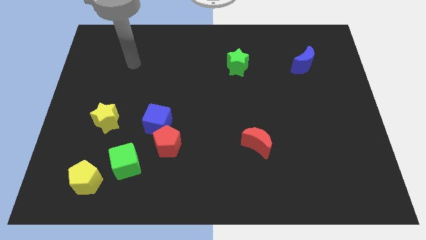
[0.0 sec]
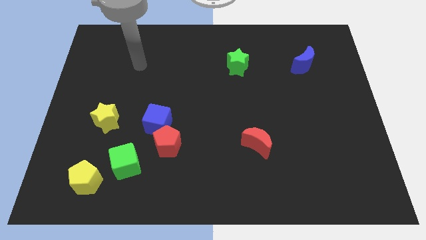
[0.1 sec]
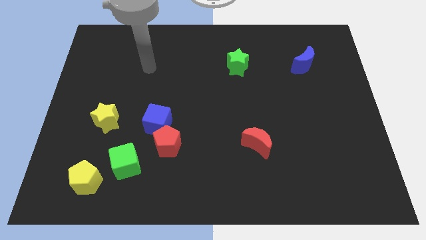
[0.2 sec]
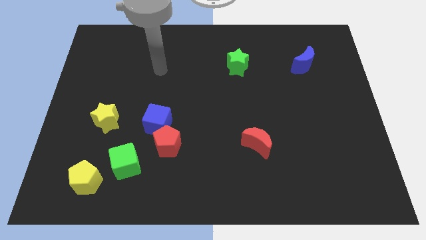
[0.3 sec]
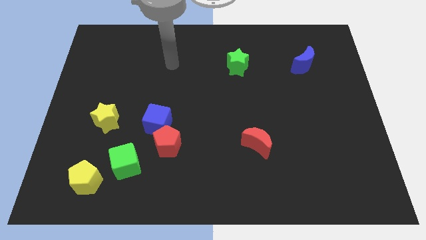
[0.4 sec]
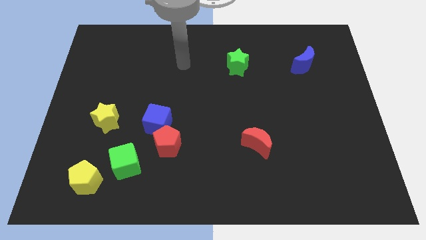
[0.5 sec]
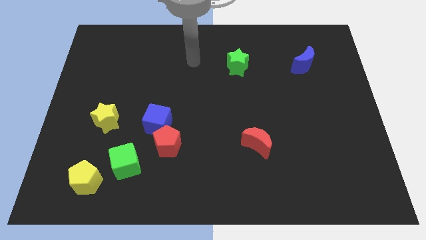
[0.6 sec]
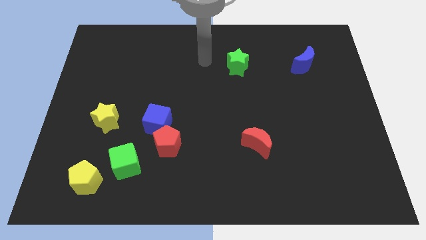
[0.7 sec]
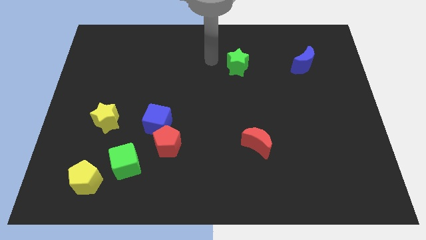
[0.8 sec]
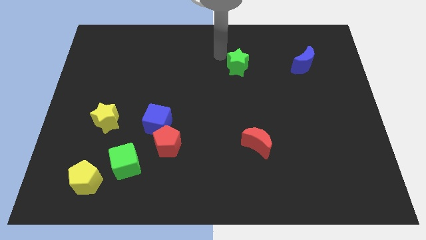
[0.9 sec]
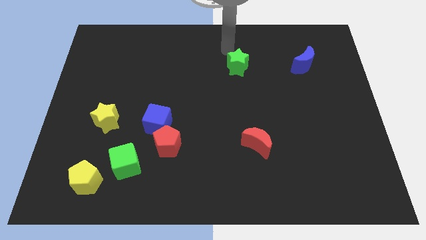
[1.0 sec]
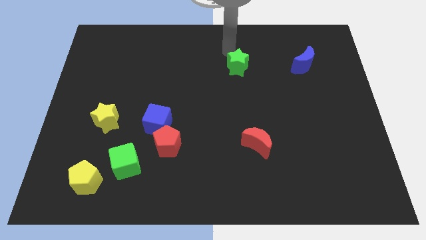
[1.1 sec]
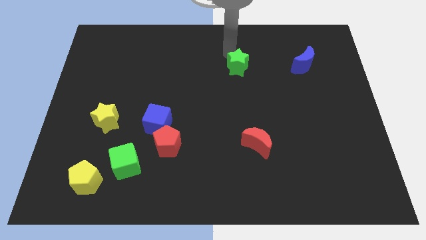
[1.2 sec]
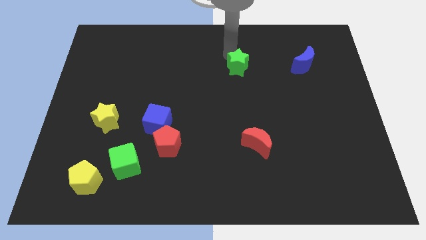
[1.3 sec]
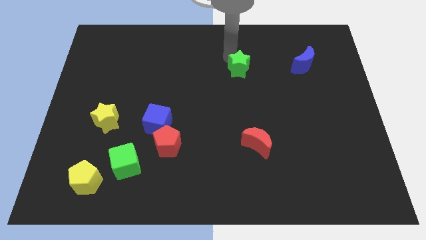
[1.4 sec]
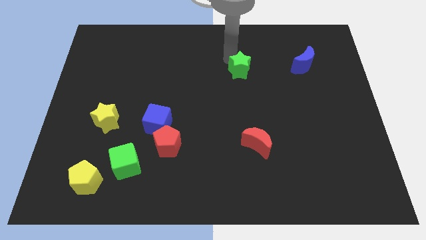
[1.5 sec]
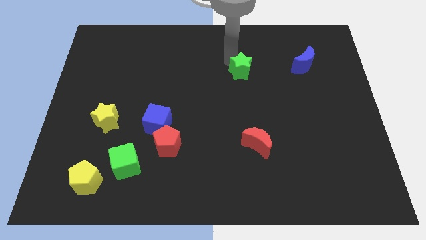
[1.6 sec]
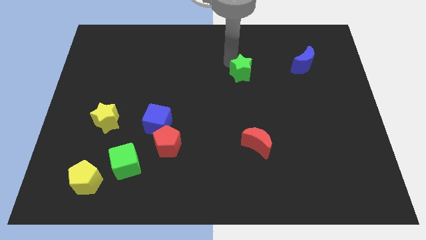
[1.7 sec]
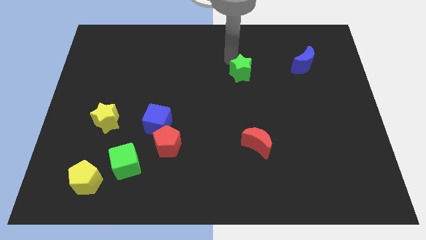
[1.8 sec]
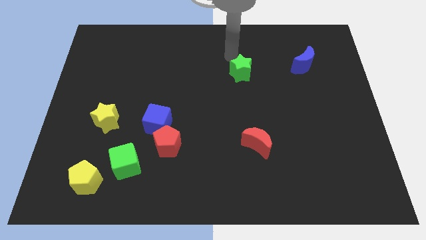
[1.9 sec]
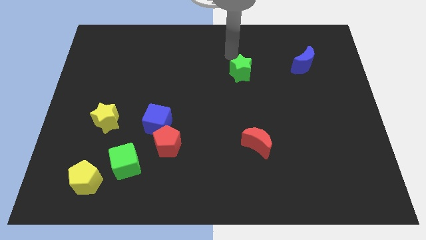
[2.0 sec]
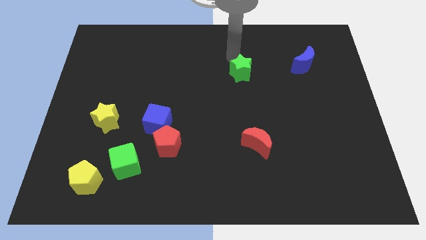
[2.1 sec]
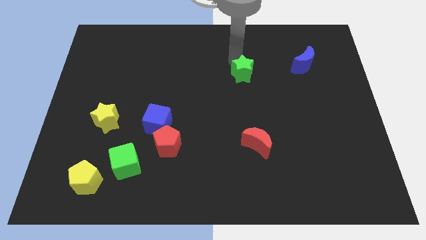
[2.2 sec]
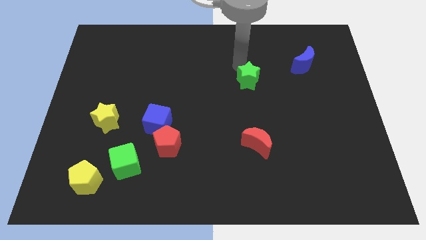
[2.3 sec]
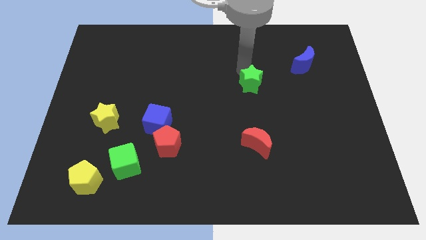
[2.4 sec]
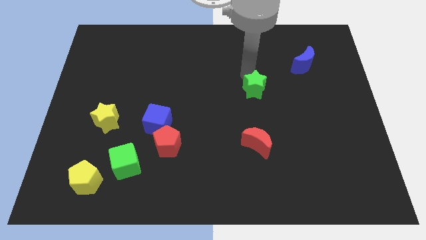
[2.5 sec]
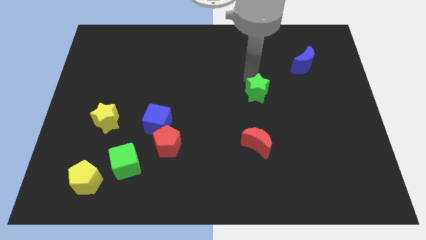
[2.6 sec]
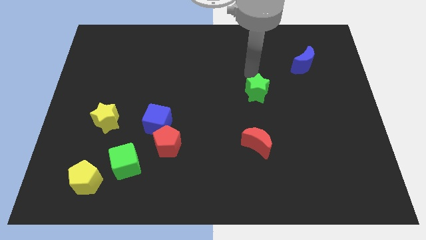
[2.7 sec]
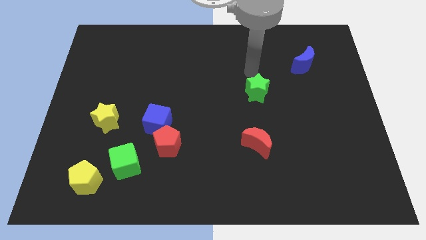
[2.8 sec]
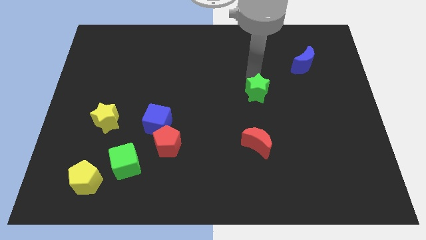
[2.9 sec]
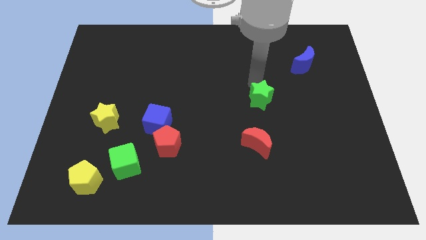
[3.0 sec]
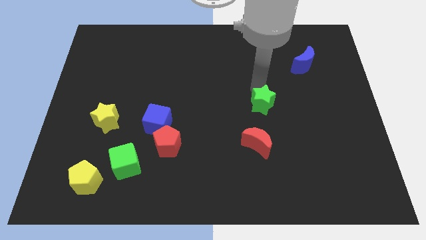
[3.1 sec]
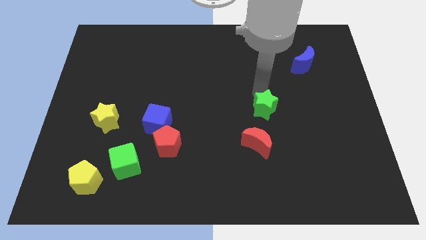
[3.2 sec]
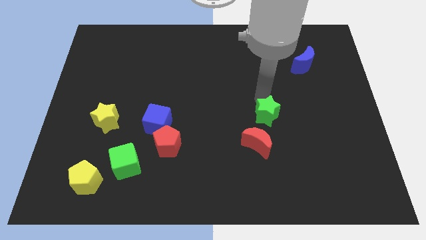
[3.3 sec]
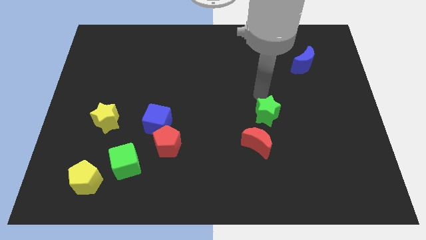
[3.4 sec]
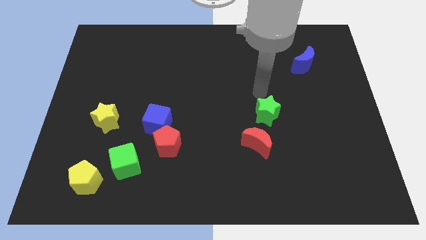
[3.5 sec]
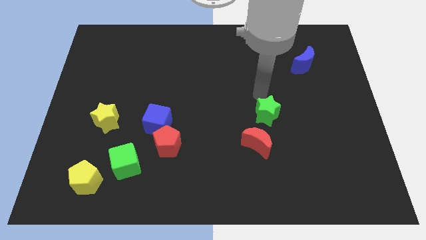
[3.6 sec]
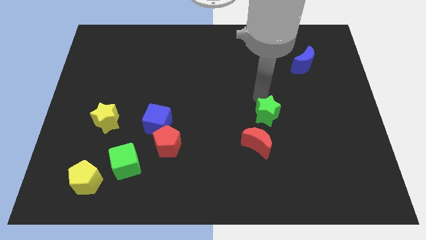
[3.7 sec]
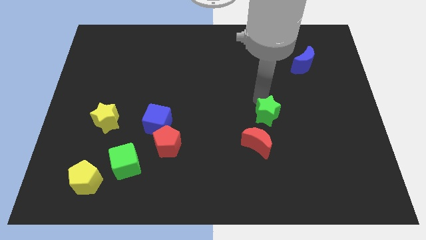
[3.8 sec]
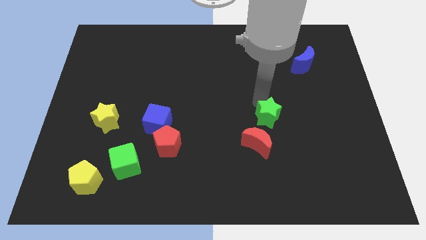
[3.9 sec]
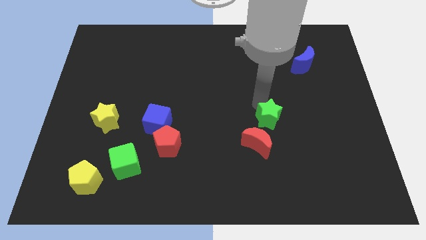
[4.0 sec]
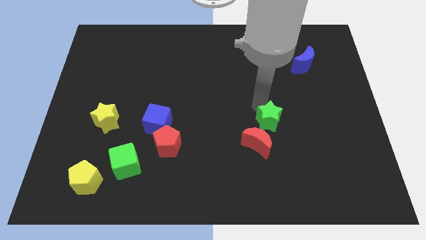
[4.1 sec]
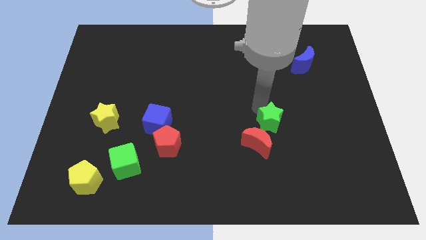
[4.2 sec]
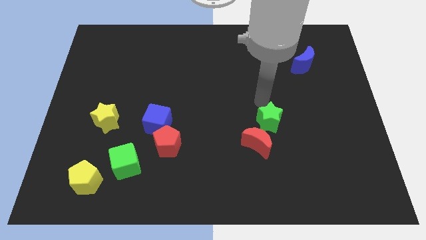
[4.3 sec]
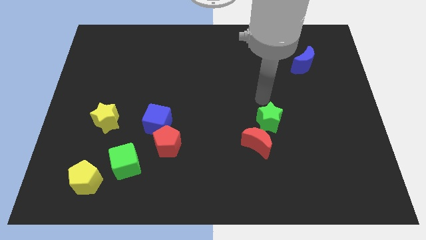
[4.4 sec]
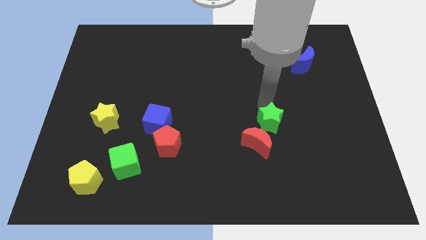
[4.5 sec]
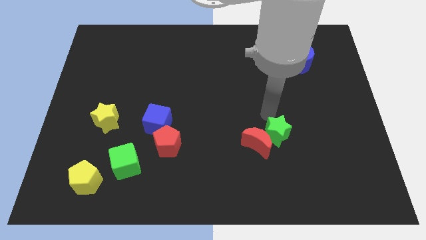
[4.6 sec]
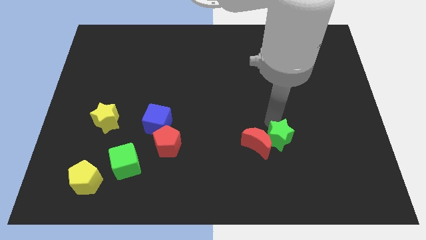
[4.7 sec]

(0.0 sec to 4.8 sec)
slide the green star to the bottom right of the red moon

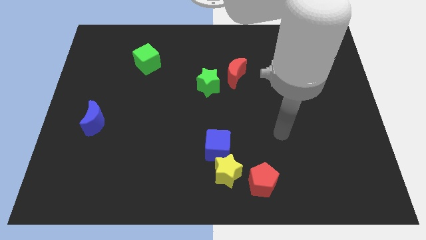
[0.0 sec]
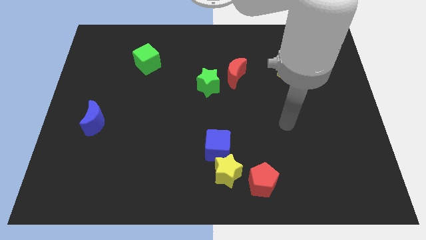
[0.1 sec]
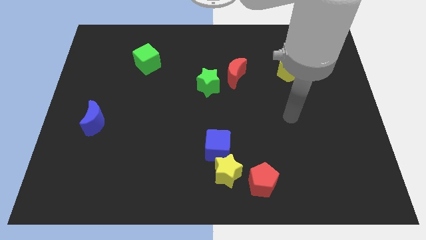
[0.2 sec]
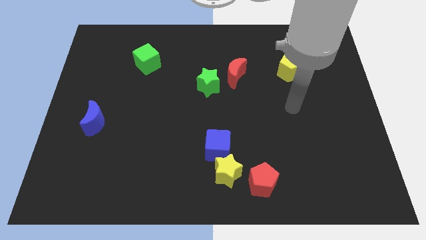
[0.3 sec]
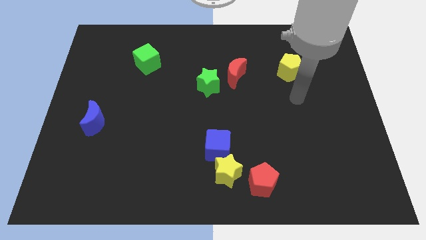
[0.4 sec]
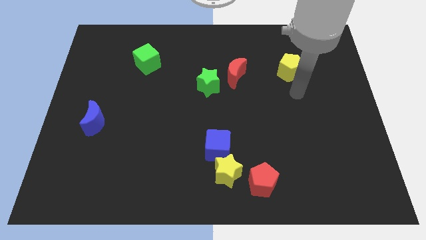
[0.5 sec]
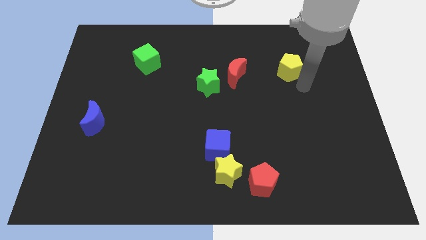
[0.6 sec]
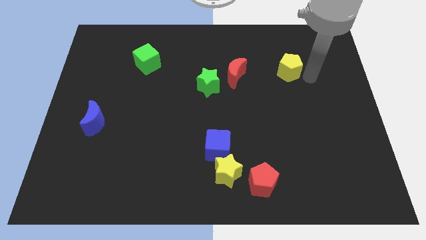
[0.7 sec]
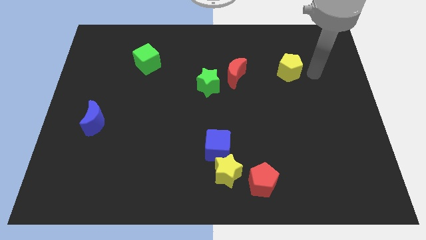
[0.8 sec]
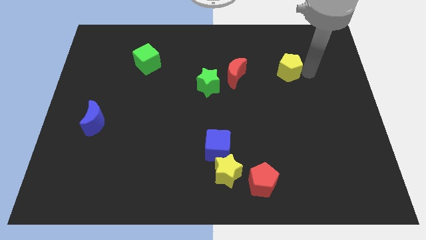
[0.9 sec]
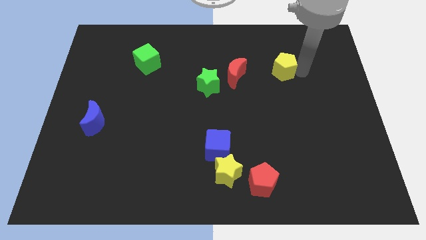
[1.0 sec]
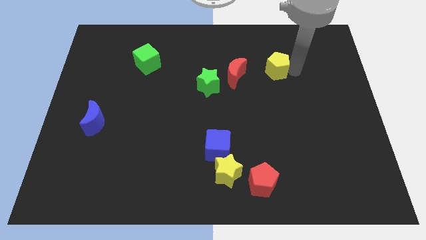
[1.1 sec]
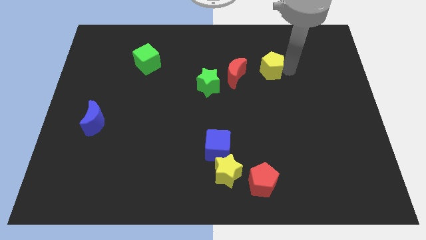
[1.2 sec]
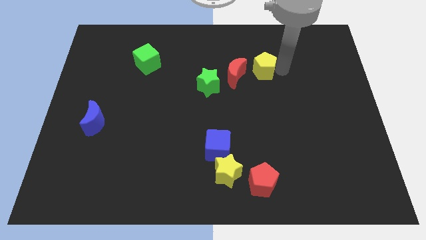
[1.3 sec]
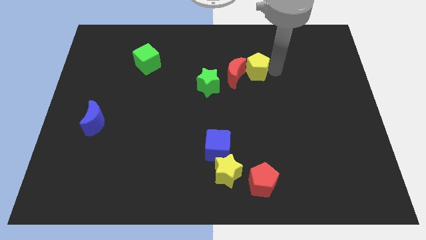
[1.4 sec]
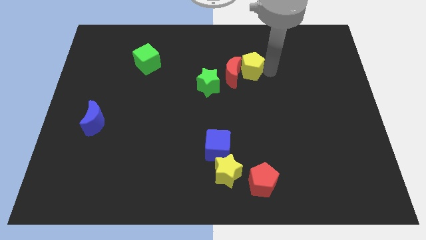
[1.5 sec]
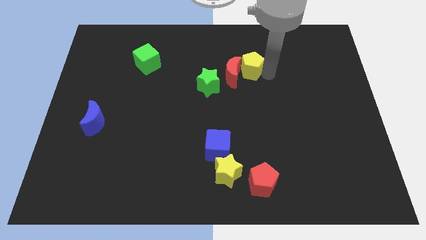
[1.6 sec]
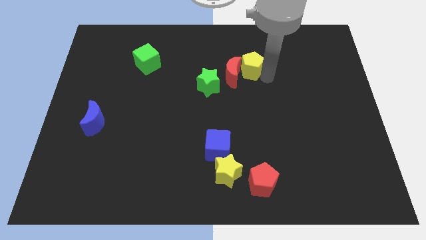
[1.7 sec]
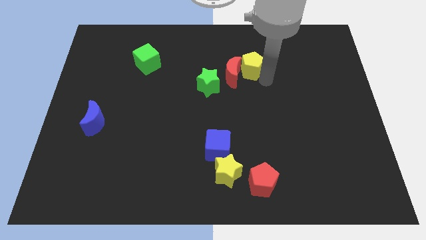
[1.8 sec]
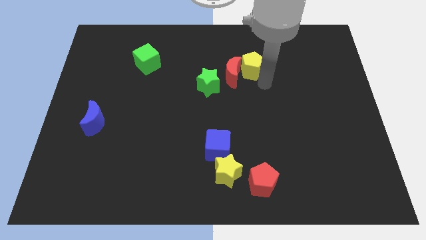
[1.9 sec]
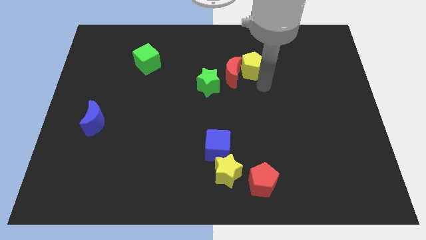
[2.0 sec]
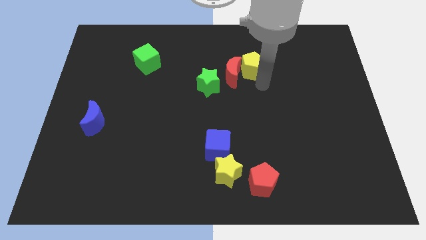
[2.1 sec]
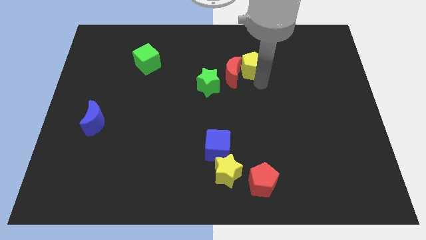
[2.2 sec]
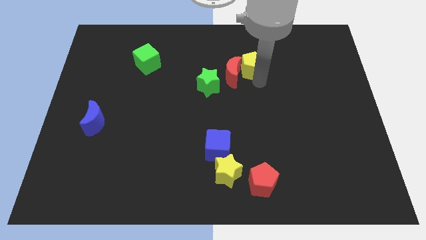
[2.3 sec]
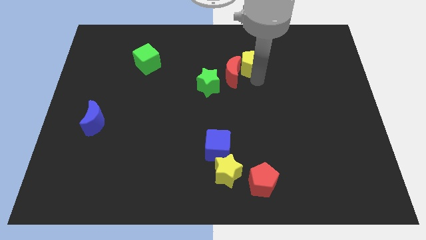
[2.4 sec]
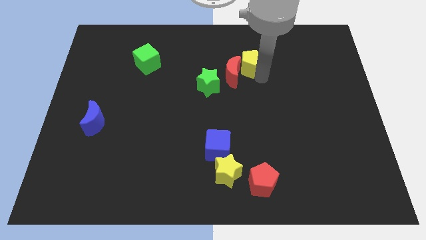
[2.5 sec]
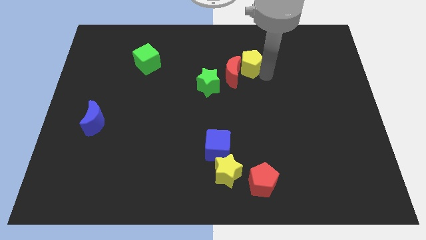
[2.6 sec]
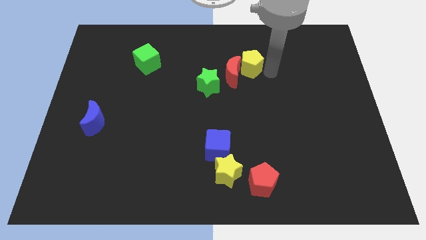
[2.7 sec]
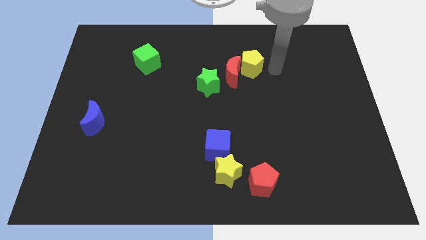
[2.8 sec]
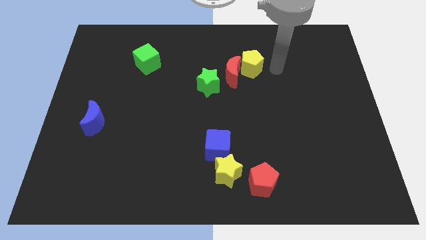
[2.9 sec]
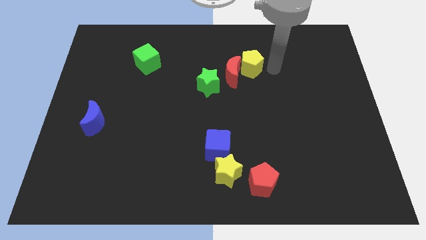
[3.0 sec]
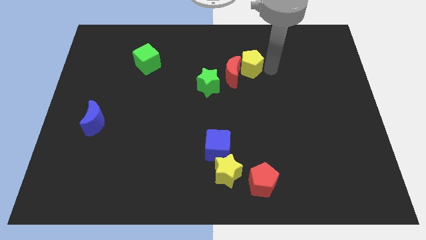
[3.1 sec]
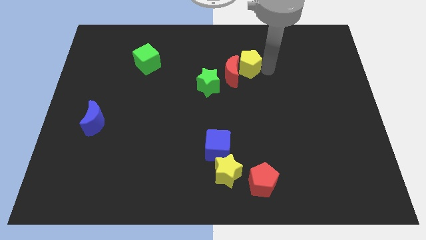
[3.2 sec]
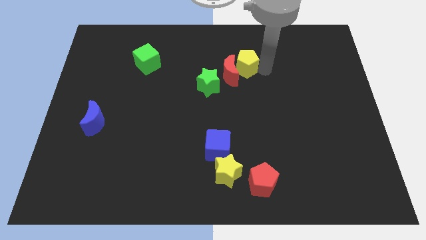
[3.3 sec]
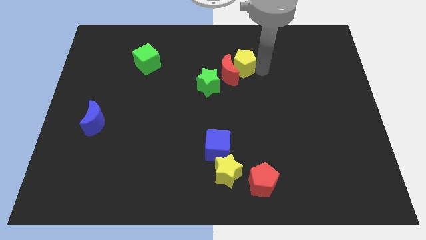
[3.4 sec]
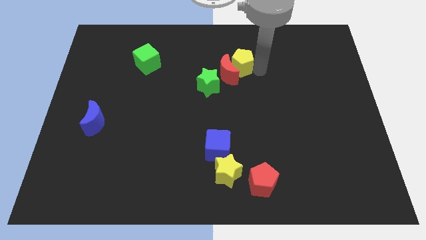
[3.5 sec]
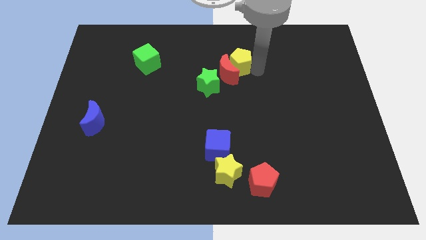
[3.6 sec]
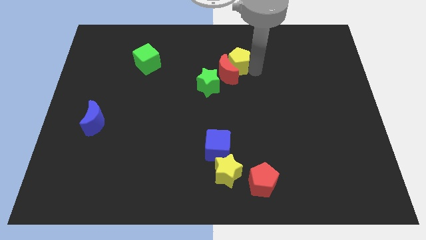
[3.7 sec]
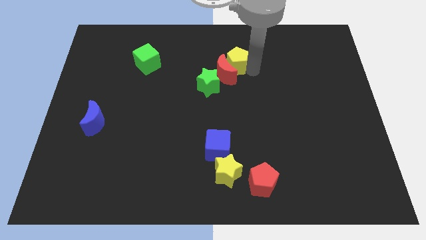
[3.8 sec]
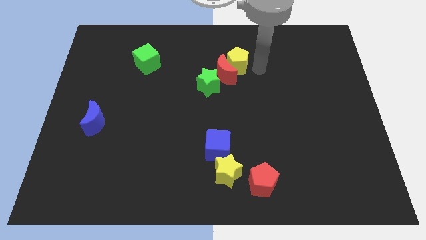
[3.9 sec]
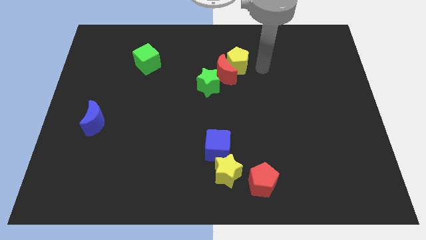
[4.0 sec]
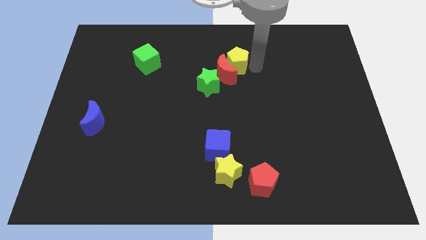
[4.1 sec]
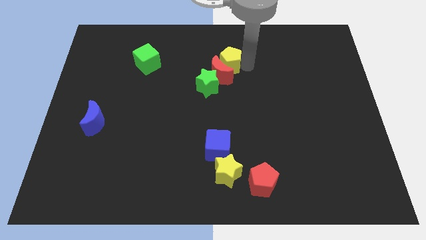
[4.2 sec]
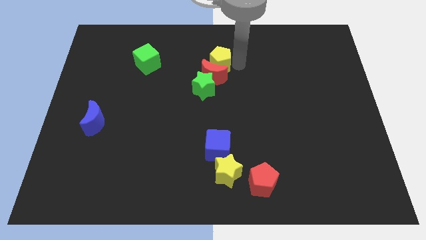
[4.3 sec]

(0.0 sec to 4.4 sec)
slide the yellow pentagon to the top left side of the red moon
